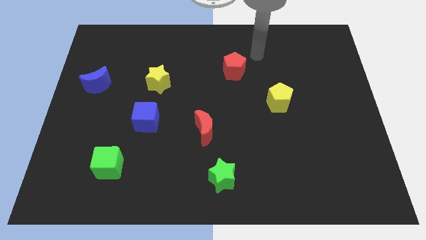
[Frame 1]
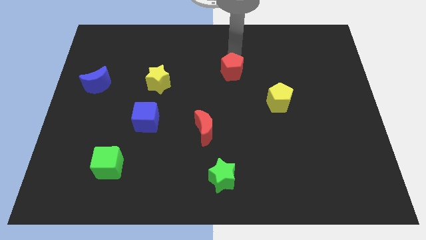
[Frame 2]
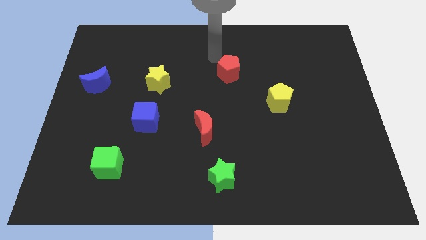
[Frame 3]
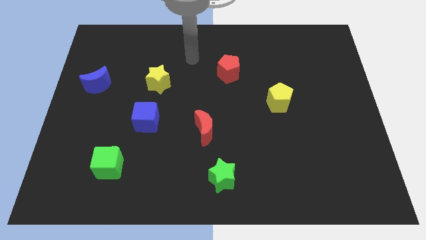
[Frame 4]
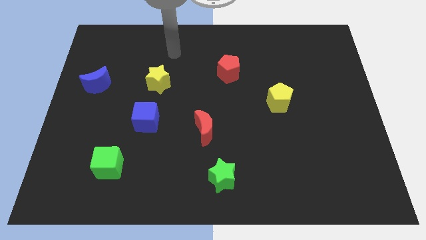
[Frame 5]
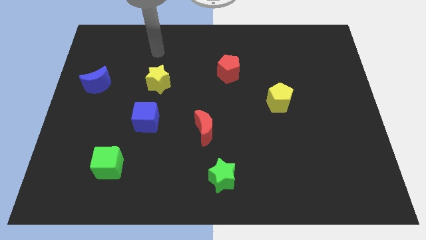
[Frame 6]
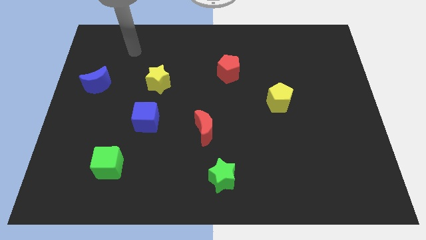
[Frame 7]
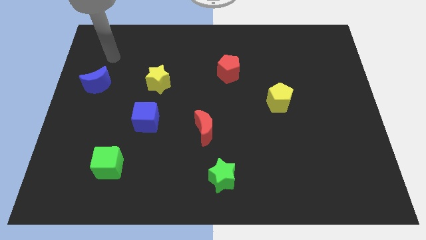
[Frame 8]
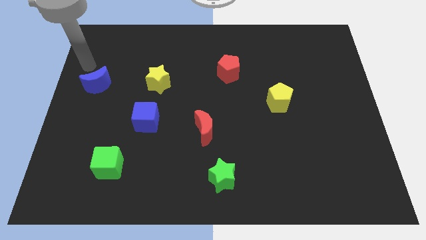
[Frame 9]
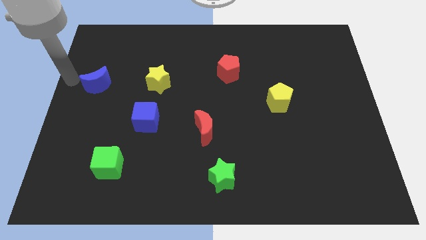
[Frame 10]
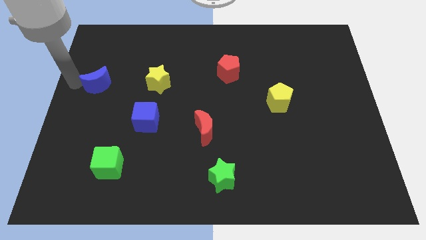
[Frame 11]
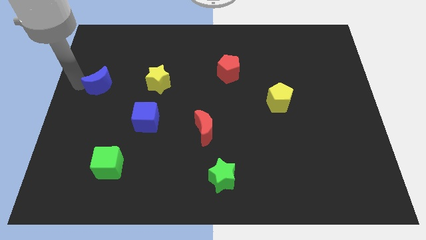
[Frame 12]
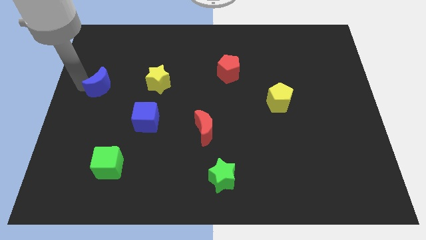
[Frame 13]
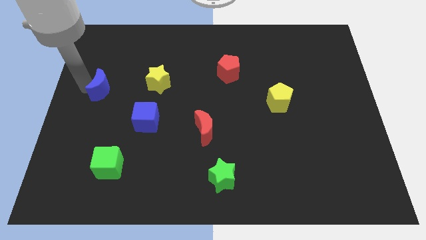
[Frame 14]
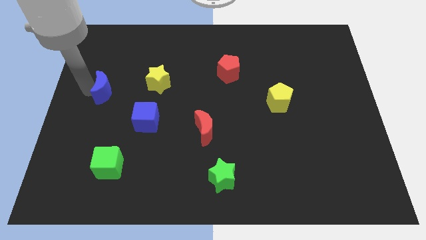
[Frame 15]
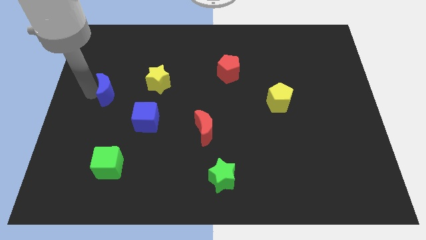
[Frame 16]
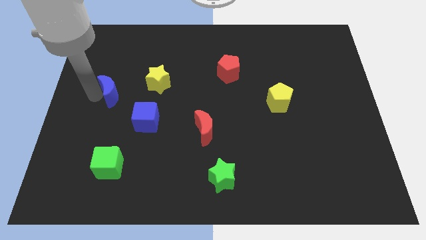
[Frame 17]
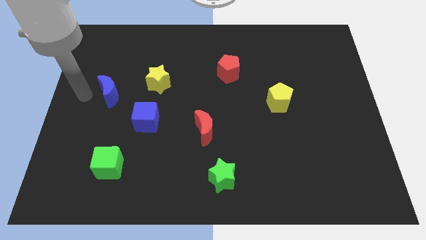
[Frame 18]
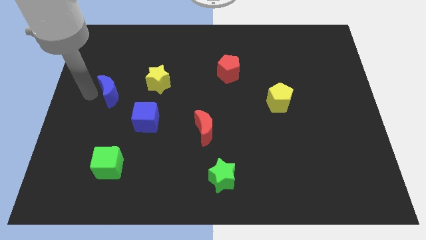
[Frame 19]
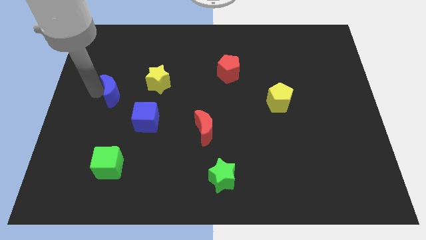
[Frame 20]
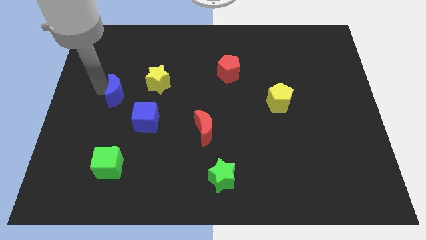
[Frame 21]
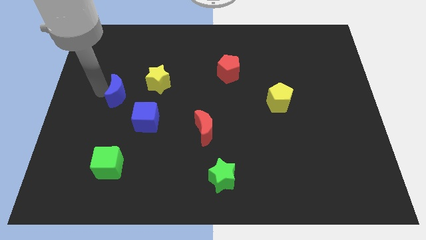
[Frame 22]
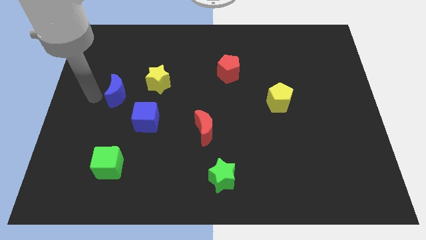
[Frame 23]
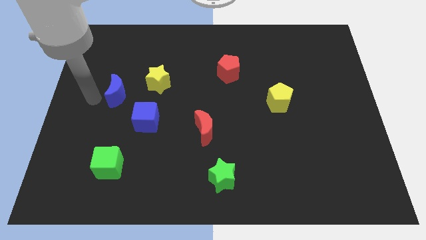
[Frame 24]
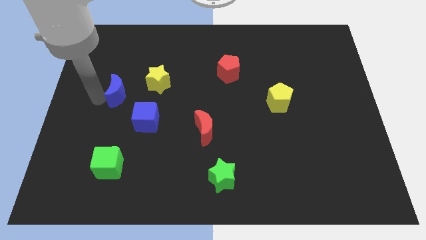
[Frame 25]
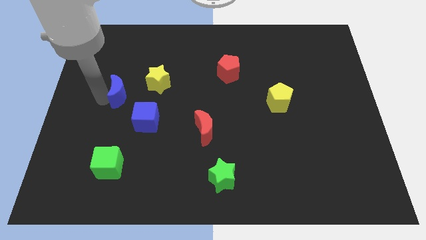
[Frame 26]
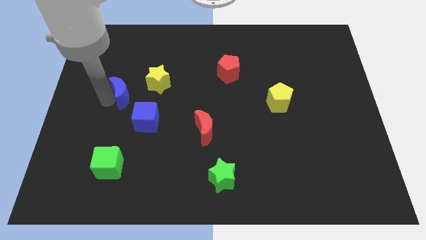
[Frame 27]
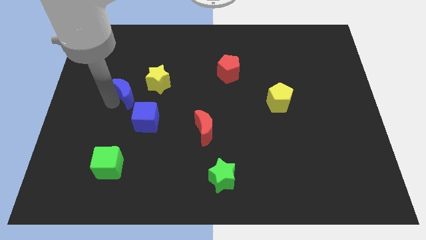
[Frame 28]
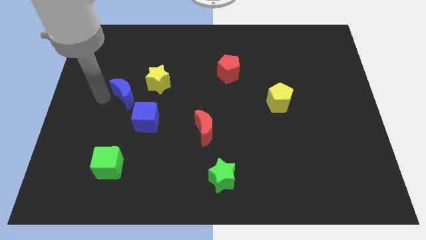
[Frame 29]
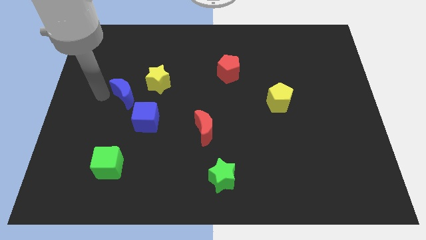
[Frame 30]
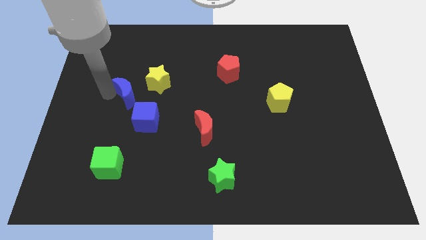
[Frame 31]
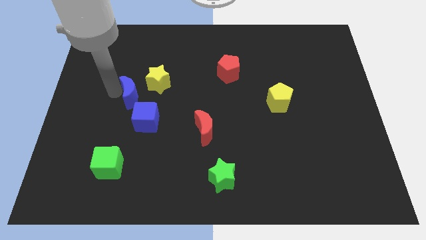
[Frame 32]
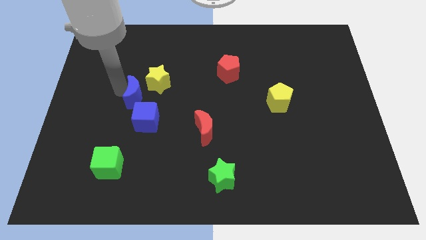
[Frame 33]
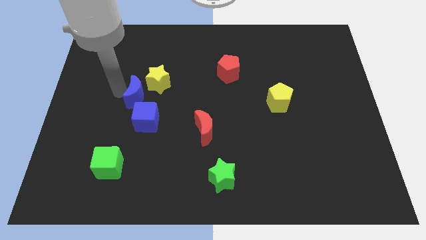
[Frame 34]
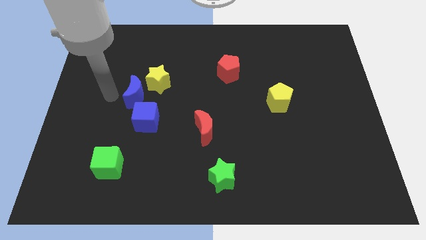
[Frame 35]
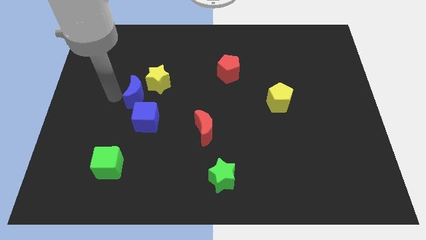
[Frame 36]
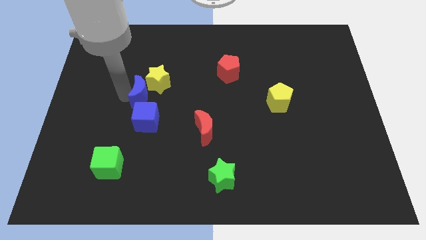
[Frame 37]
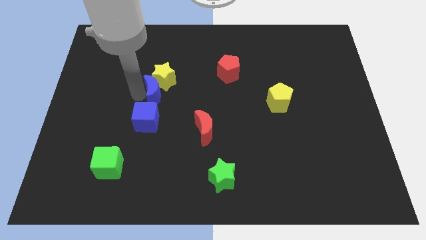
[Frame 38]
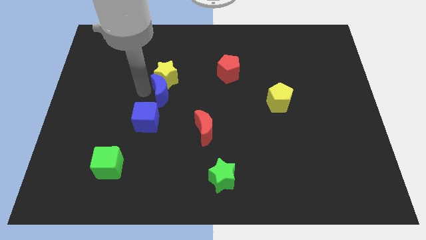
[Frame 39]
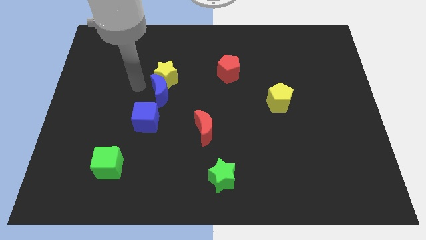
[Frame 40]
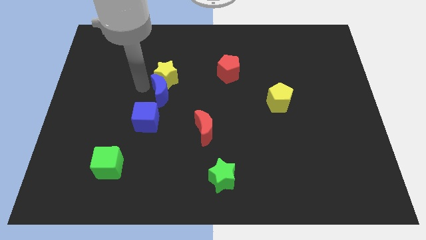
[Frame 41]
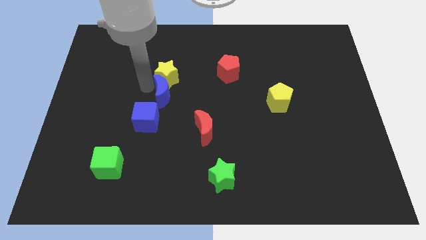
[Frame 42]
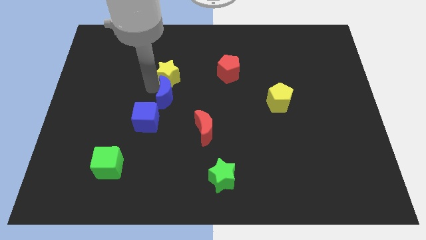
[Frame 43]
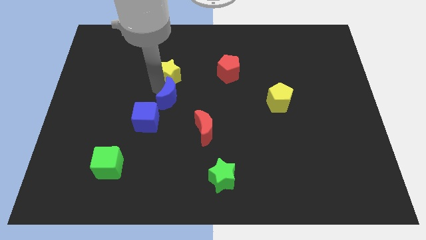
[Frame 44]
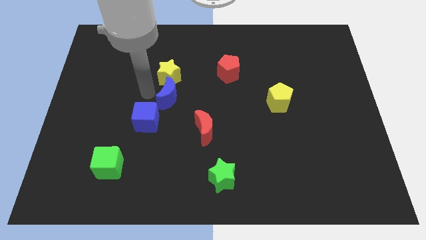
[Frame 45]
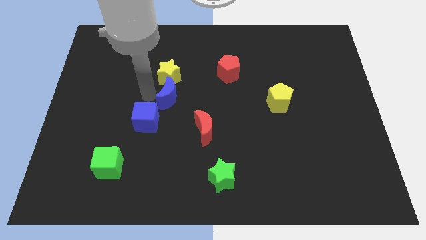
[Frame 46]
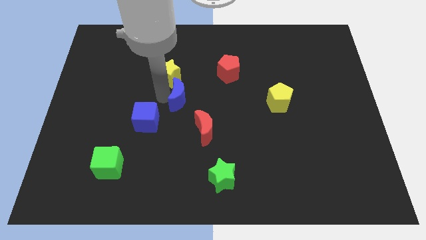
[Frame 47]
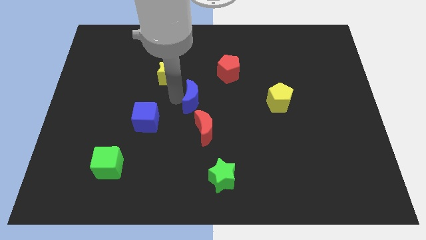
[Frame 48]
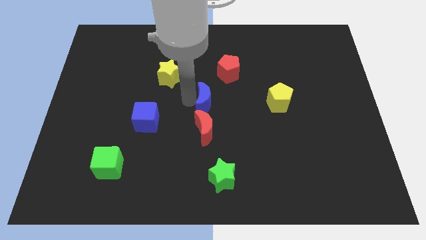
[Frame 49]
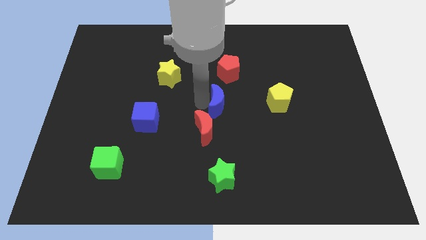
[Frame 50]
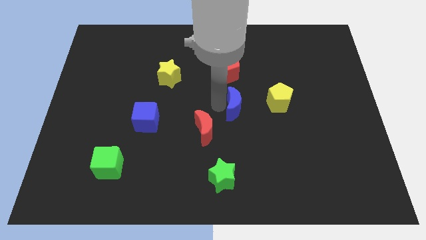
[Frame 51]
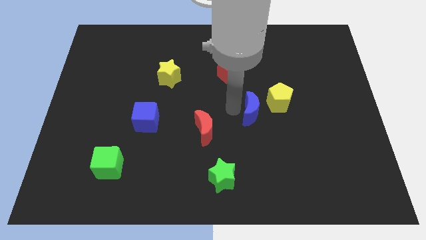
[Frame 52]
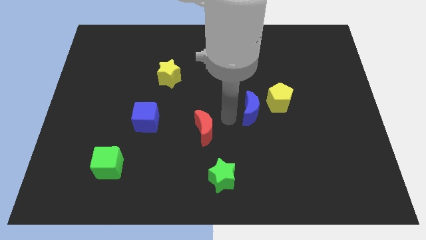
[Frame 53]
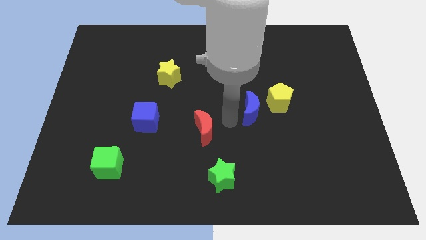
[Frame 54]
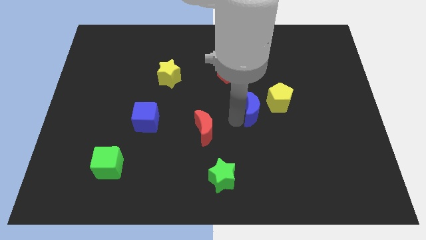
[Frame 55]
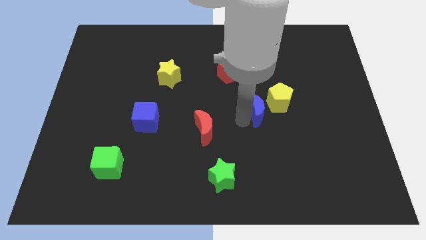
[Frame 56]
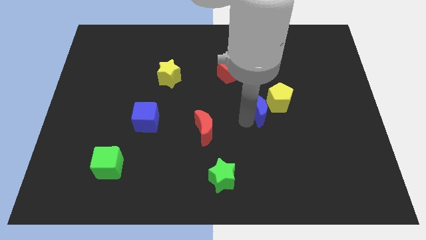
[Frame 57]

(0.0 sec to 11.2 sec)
move the blue moon towards the yellow pentagon

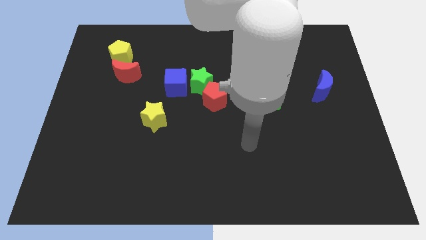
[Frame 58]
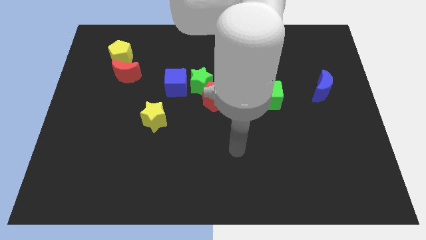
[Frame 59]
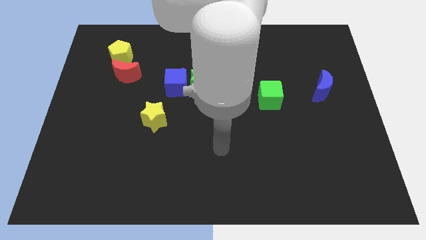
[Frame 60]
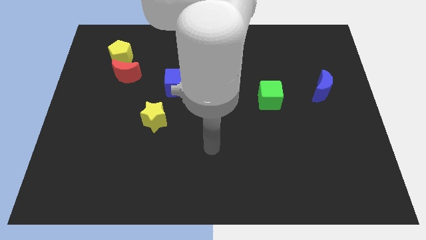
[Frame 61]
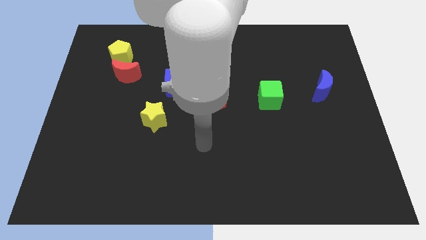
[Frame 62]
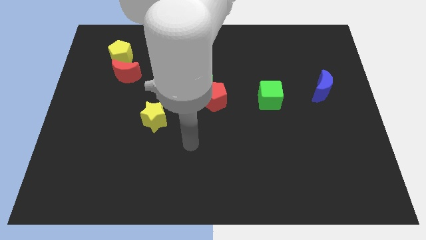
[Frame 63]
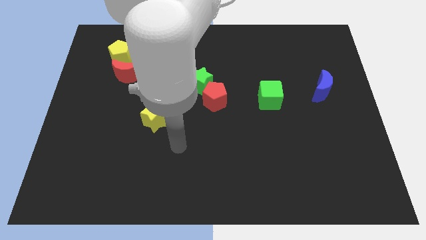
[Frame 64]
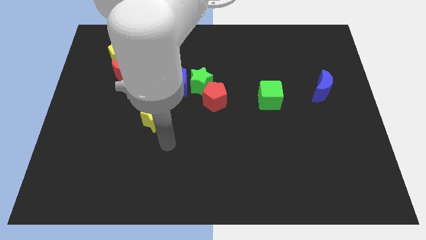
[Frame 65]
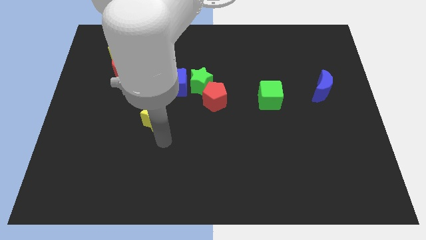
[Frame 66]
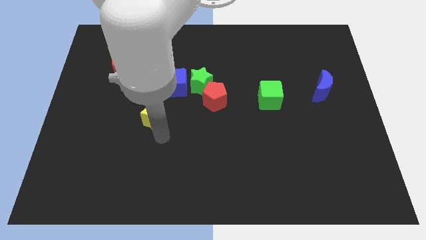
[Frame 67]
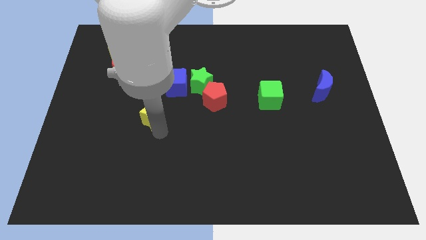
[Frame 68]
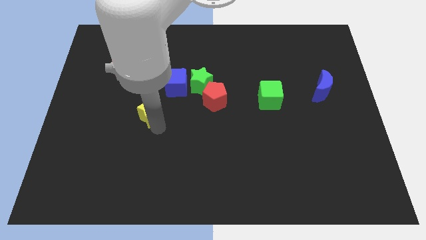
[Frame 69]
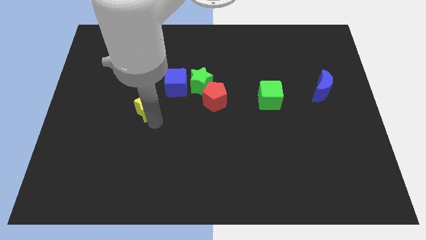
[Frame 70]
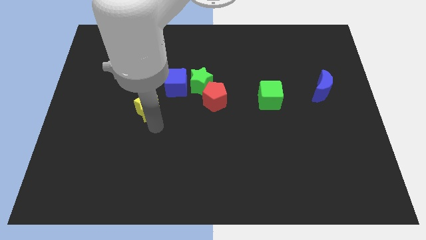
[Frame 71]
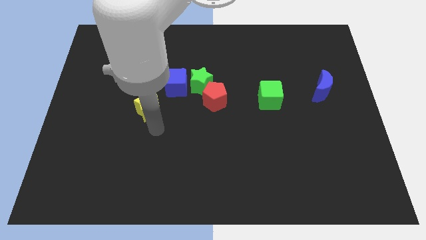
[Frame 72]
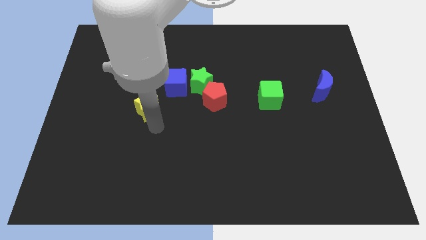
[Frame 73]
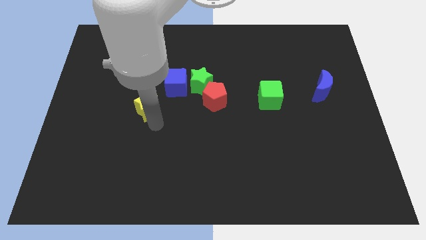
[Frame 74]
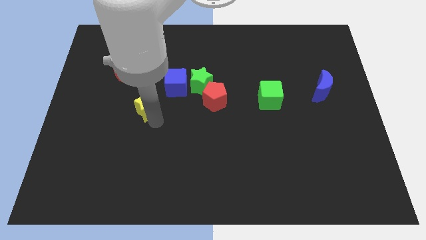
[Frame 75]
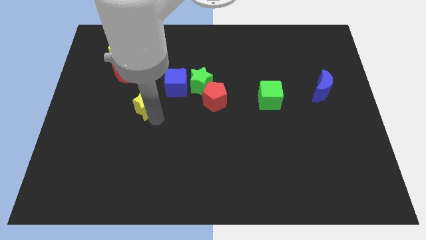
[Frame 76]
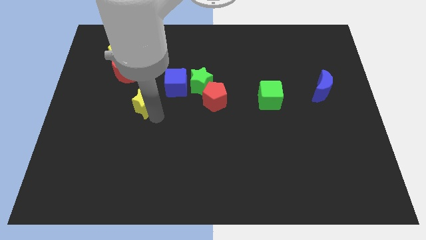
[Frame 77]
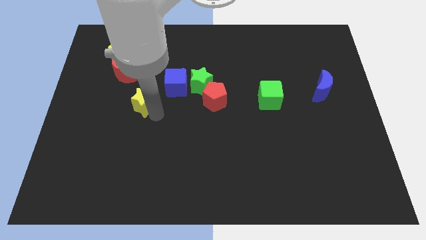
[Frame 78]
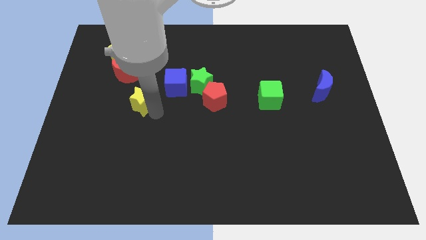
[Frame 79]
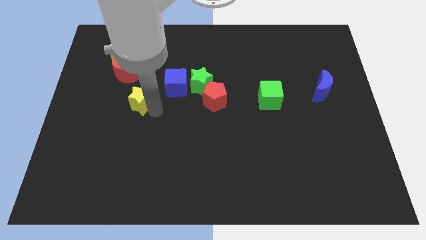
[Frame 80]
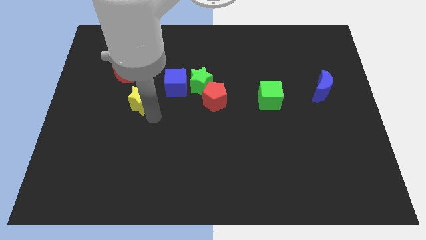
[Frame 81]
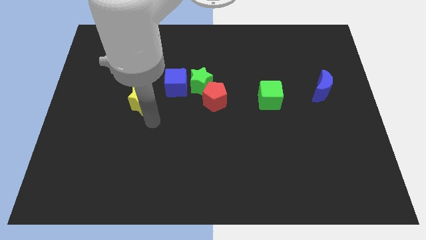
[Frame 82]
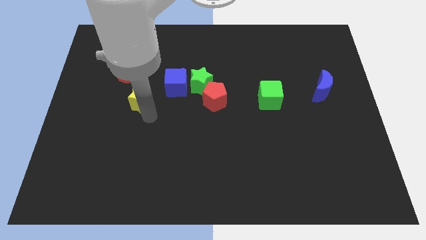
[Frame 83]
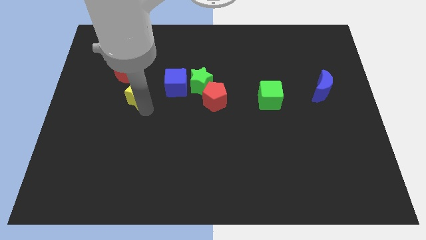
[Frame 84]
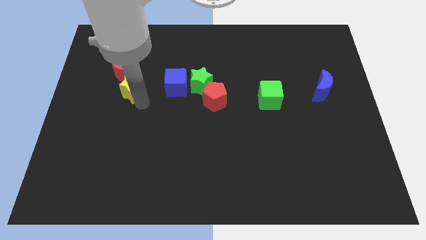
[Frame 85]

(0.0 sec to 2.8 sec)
push the yellow star towards the red moon
